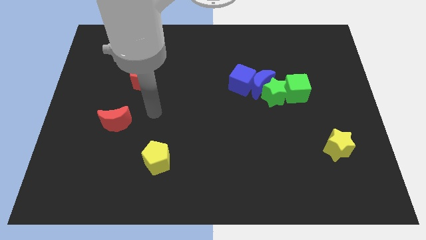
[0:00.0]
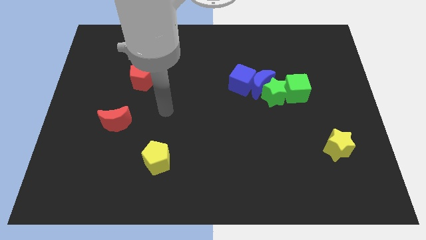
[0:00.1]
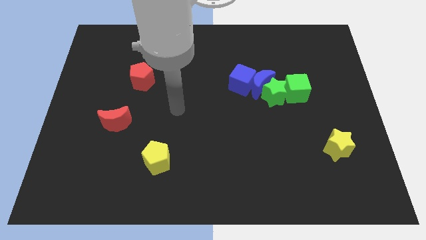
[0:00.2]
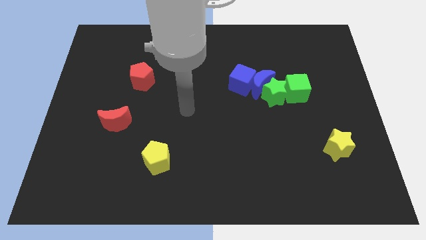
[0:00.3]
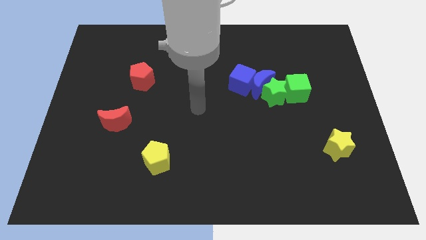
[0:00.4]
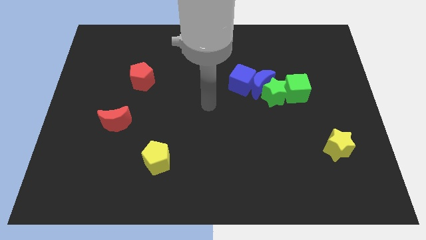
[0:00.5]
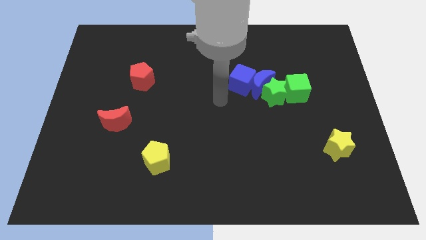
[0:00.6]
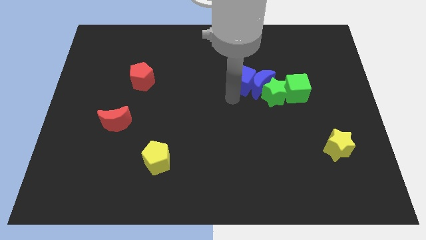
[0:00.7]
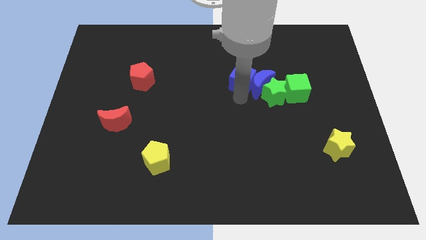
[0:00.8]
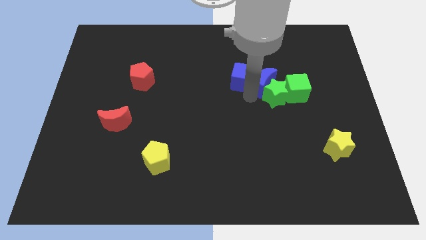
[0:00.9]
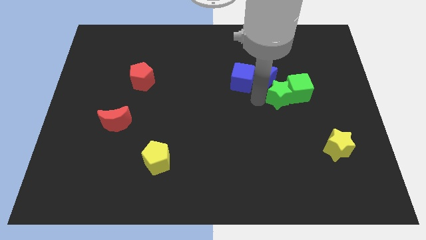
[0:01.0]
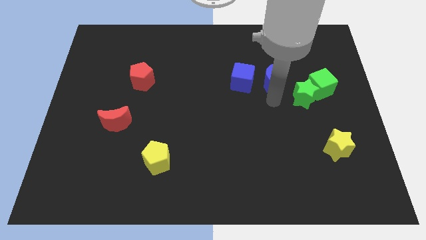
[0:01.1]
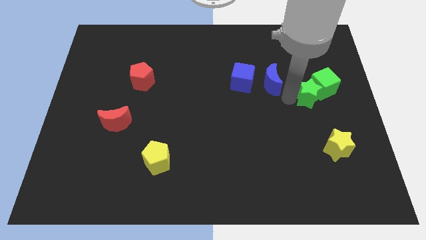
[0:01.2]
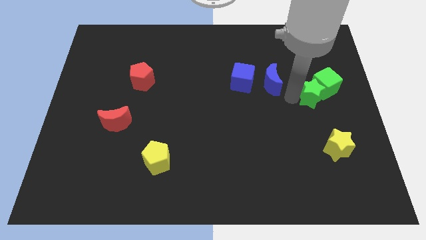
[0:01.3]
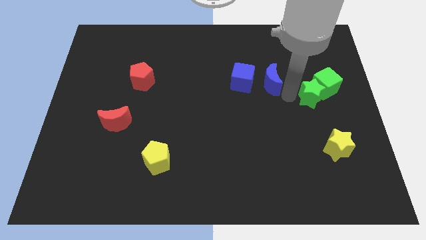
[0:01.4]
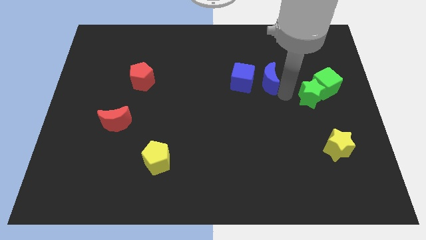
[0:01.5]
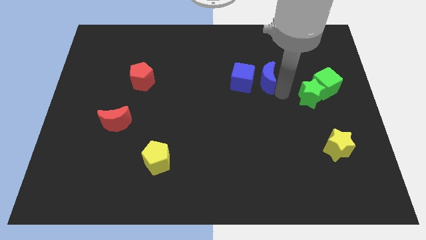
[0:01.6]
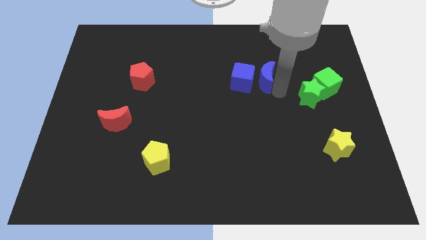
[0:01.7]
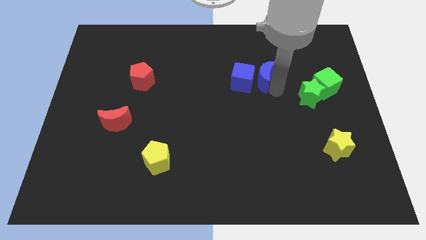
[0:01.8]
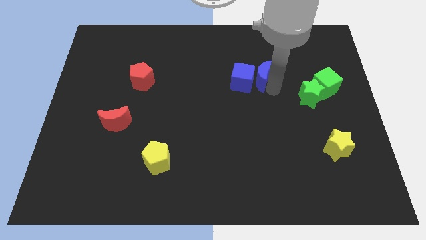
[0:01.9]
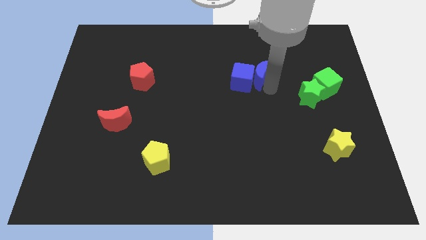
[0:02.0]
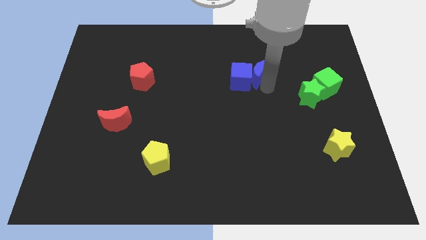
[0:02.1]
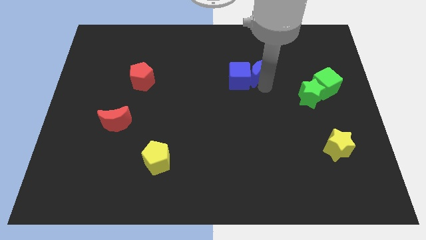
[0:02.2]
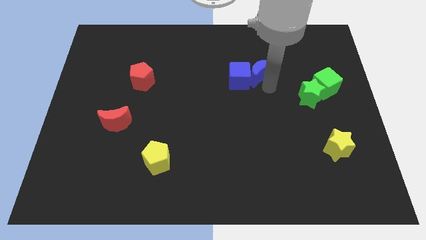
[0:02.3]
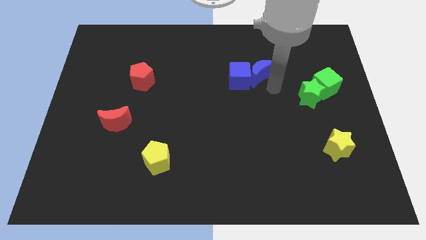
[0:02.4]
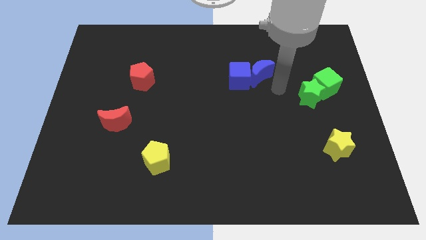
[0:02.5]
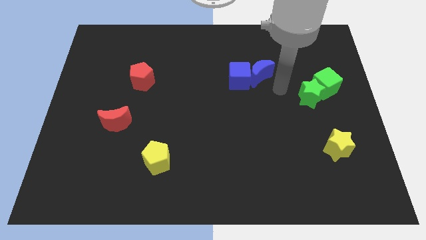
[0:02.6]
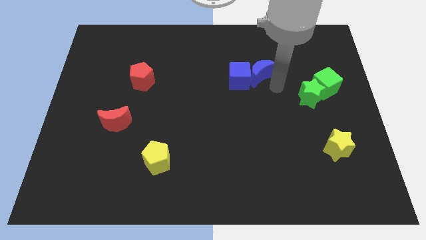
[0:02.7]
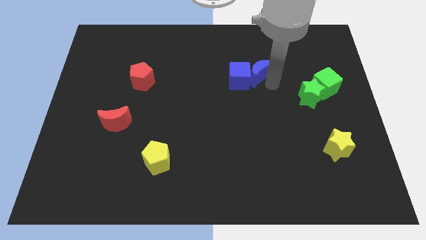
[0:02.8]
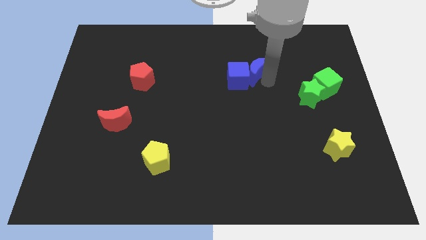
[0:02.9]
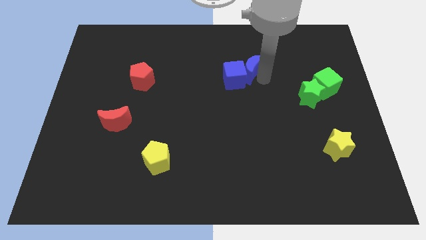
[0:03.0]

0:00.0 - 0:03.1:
separate the blue moon from the group

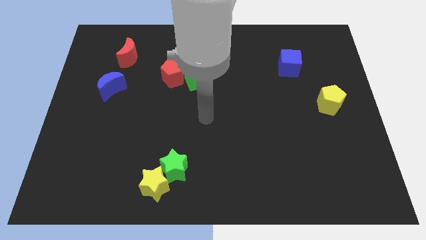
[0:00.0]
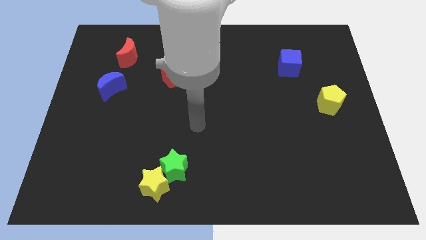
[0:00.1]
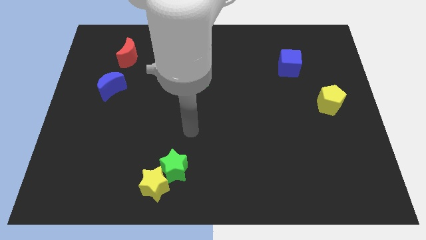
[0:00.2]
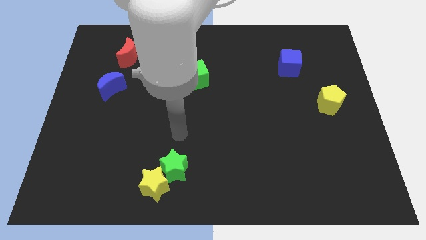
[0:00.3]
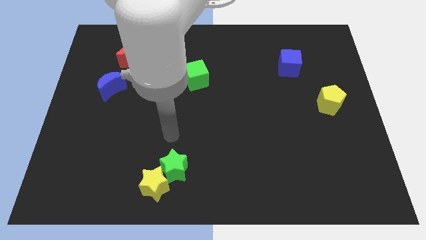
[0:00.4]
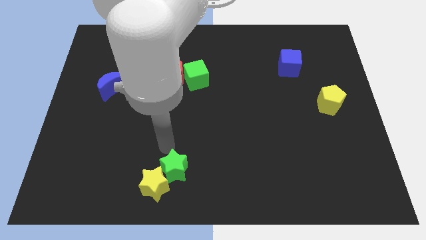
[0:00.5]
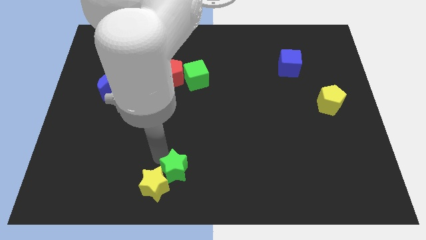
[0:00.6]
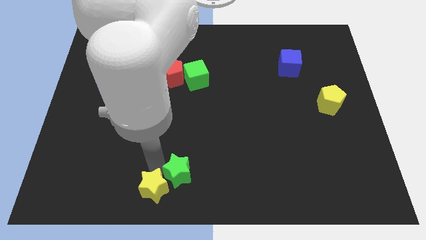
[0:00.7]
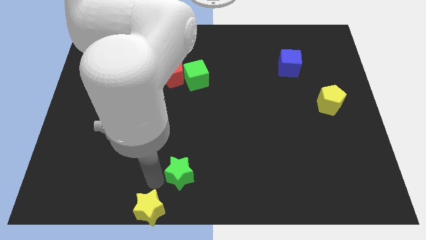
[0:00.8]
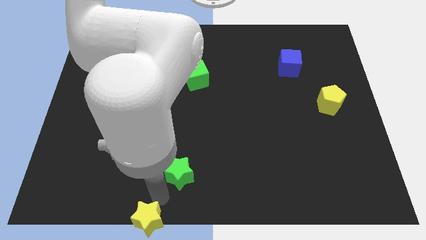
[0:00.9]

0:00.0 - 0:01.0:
separate the green star from the yellow star

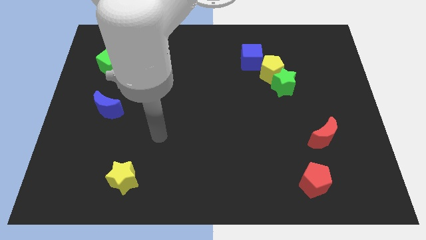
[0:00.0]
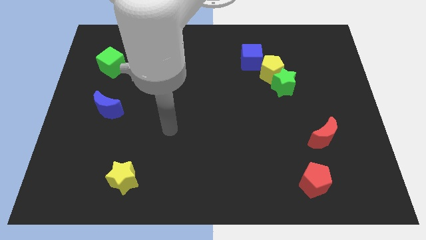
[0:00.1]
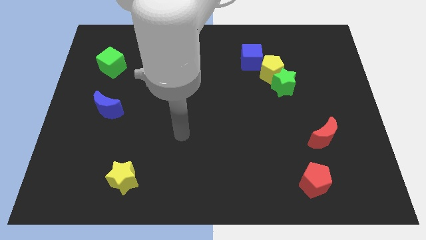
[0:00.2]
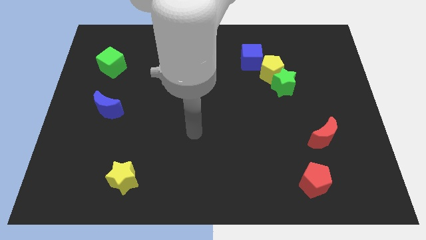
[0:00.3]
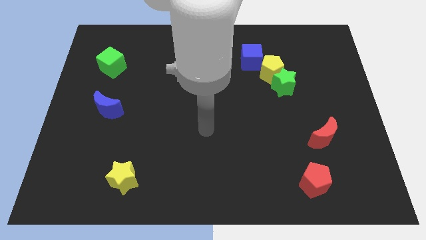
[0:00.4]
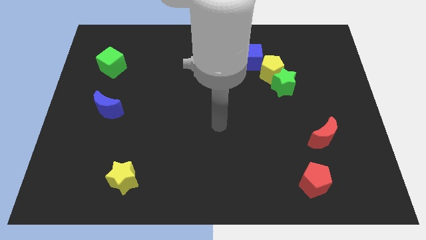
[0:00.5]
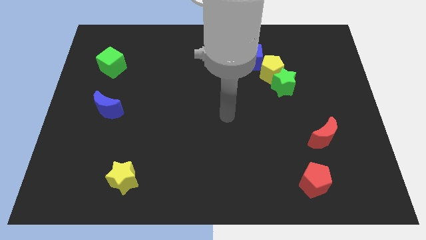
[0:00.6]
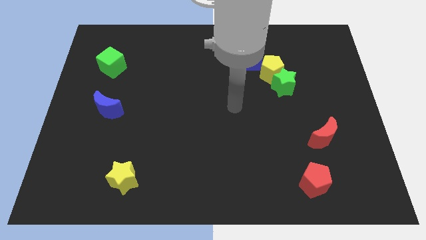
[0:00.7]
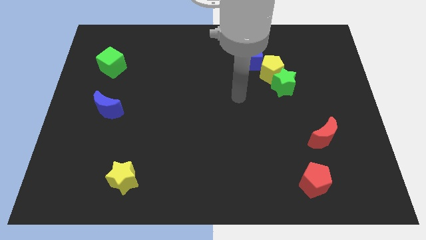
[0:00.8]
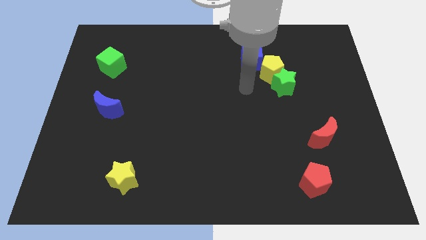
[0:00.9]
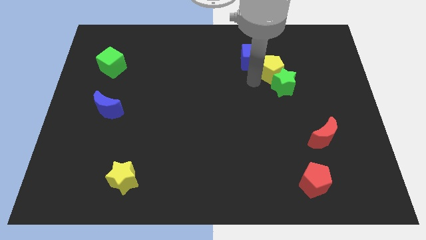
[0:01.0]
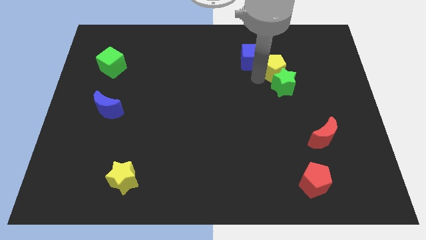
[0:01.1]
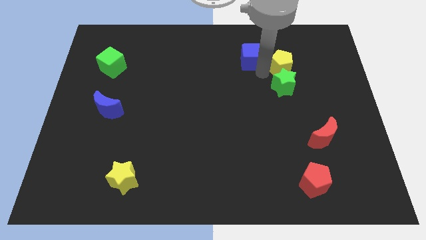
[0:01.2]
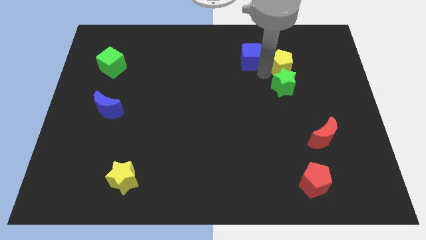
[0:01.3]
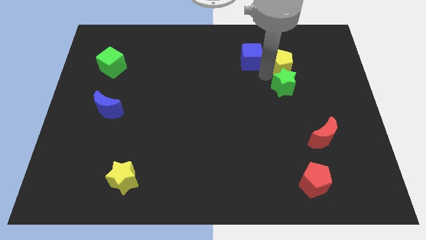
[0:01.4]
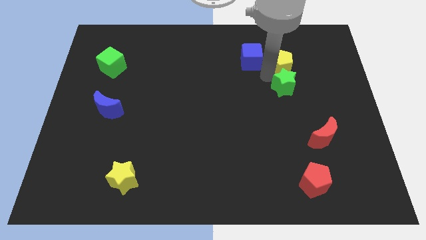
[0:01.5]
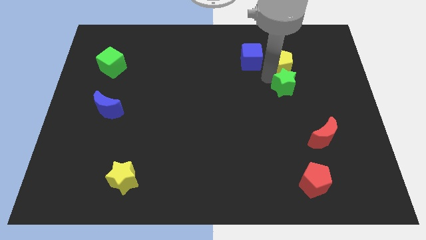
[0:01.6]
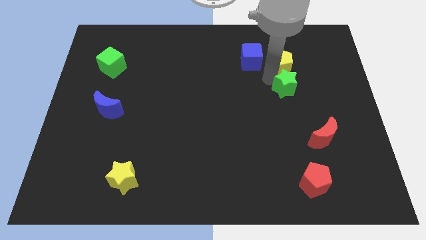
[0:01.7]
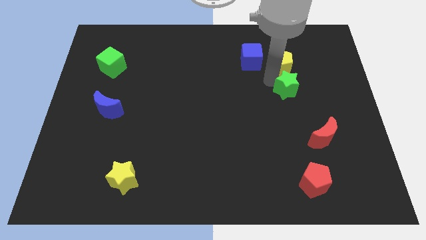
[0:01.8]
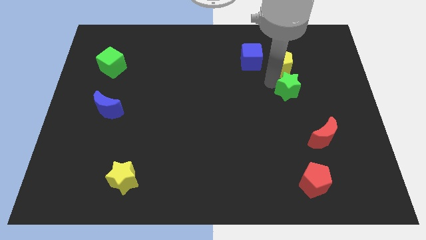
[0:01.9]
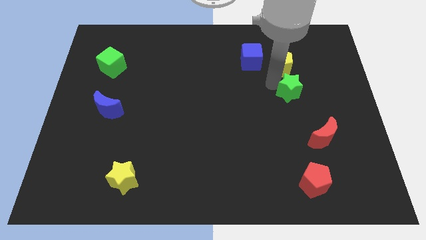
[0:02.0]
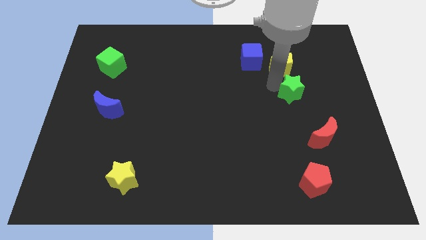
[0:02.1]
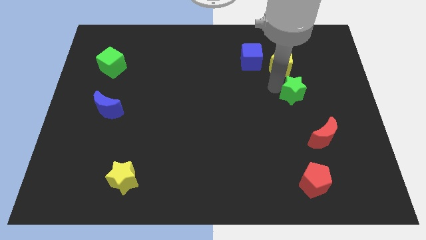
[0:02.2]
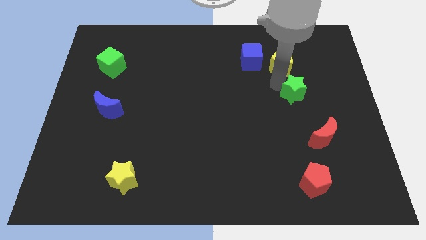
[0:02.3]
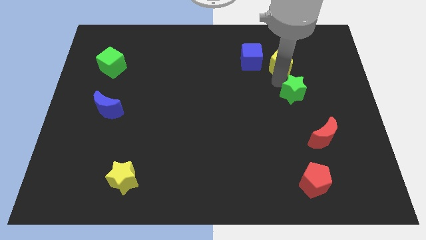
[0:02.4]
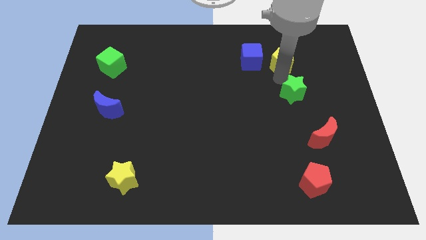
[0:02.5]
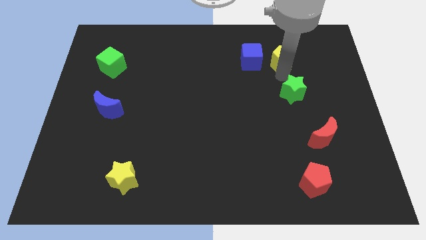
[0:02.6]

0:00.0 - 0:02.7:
pull the green star apart from the yellow pentagon

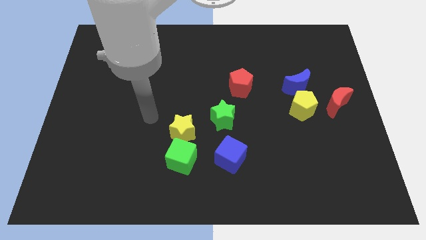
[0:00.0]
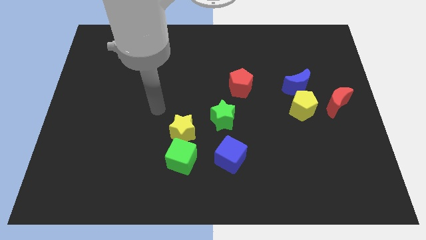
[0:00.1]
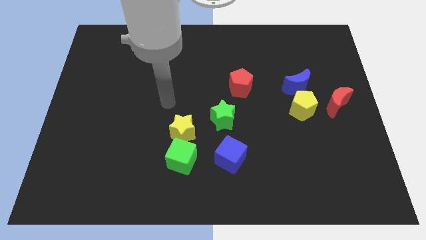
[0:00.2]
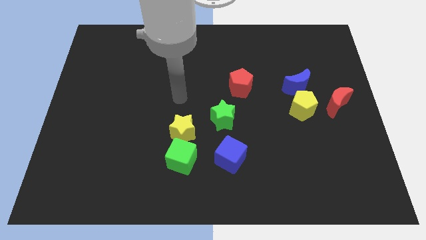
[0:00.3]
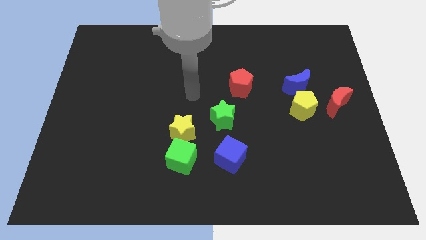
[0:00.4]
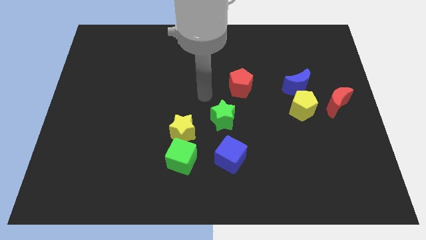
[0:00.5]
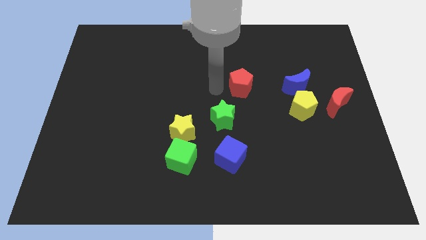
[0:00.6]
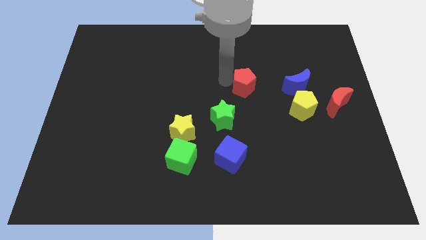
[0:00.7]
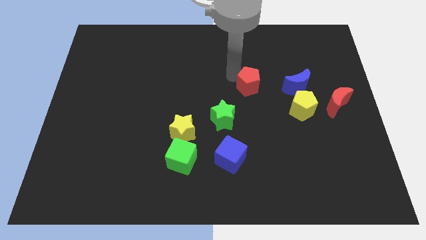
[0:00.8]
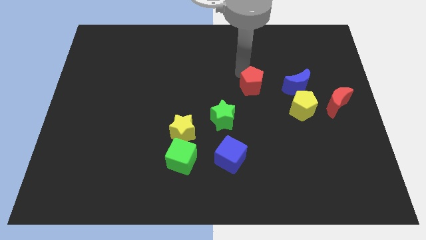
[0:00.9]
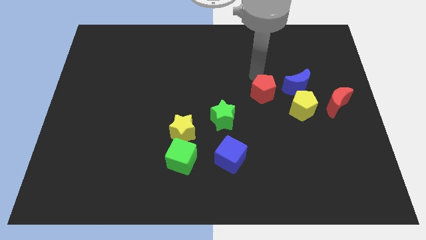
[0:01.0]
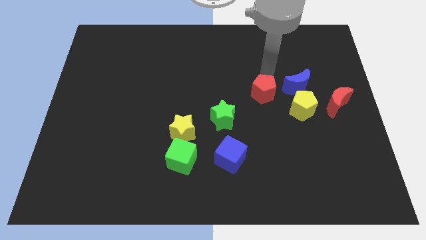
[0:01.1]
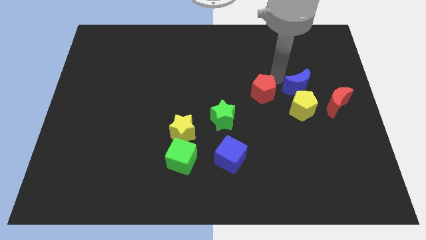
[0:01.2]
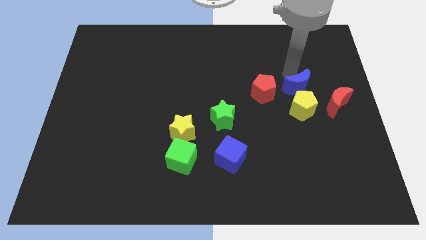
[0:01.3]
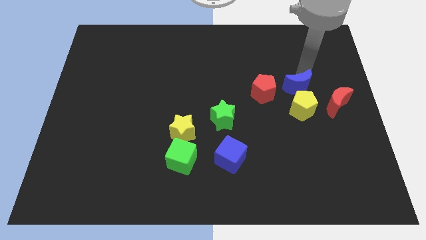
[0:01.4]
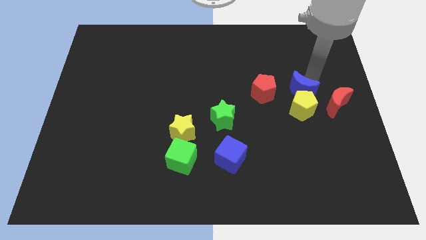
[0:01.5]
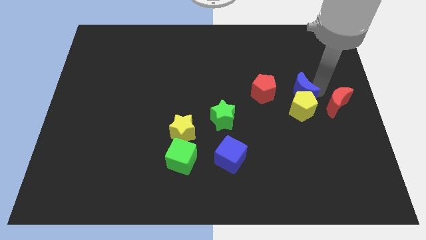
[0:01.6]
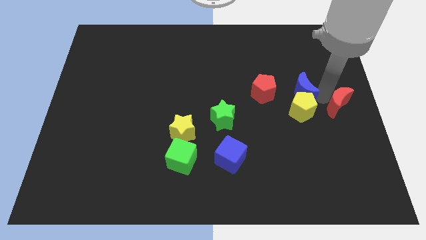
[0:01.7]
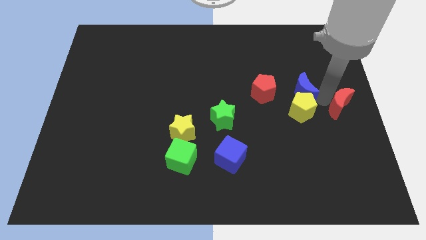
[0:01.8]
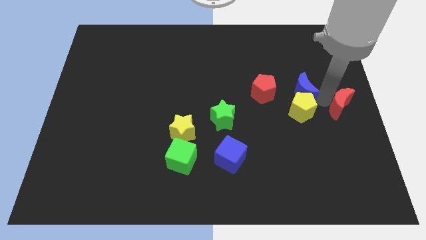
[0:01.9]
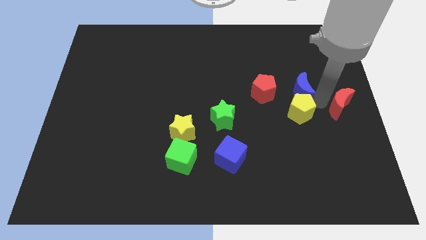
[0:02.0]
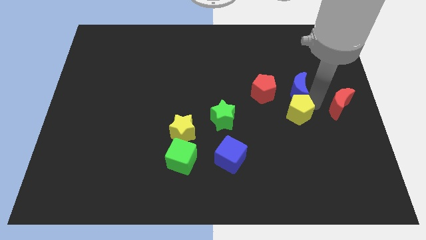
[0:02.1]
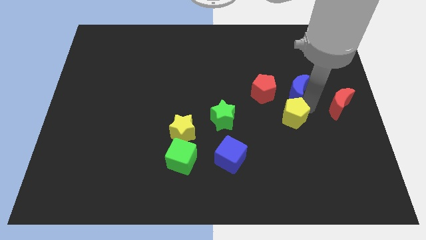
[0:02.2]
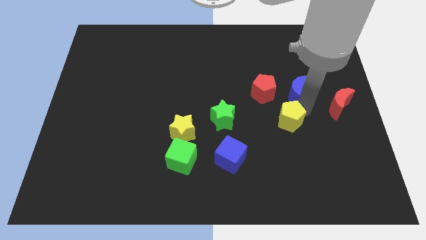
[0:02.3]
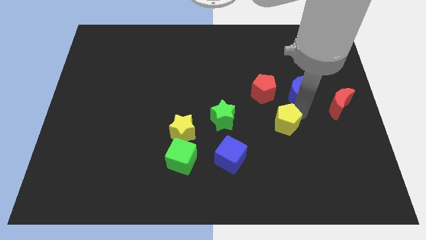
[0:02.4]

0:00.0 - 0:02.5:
move the yellow pentagon away from the blue moon and red moon
